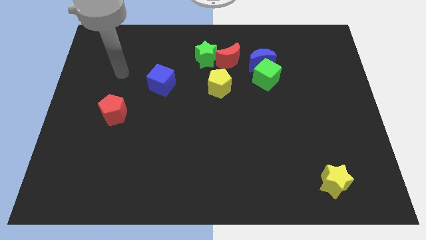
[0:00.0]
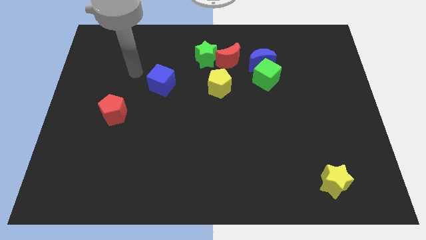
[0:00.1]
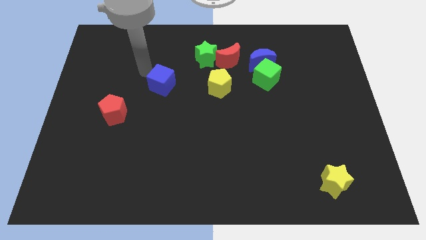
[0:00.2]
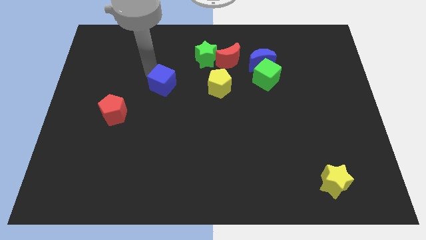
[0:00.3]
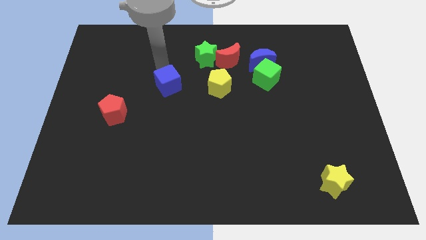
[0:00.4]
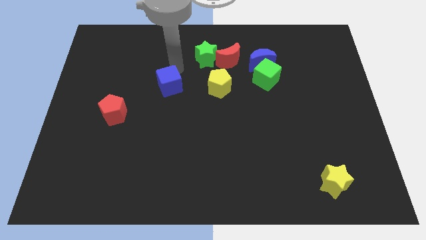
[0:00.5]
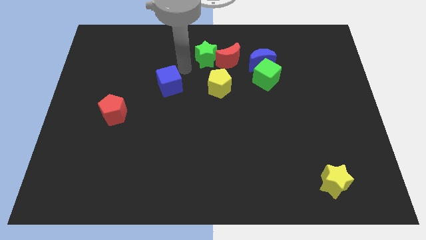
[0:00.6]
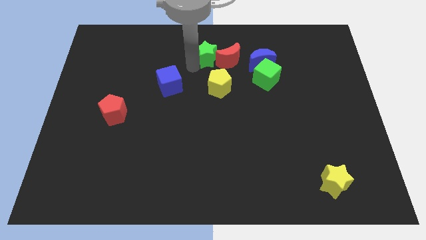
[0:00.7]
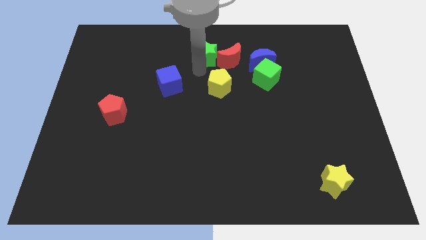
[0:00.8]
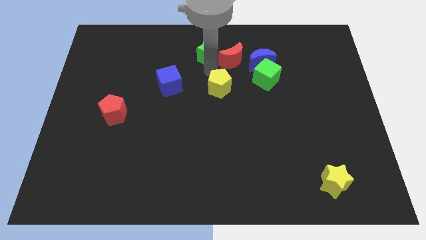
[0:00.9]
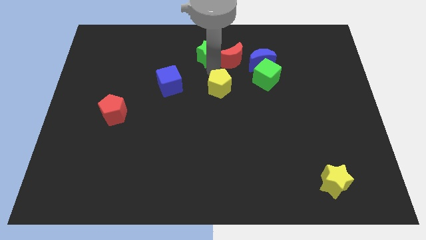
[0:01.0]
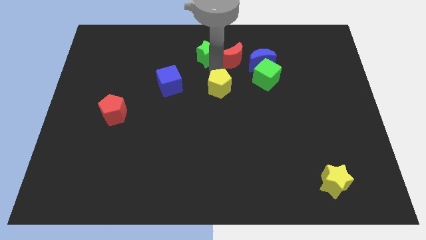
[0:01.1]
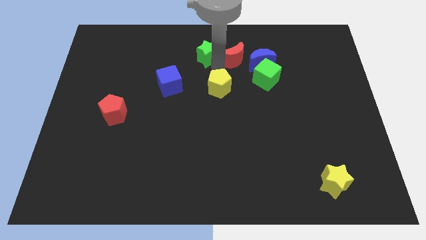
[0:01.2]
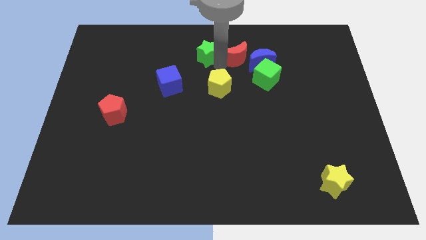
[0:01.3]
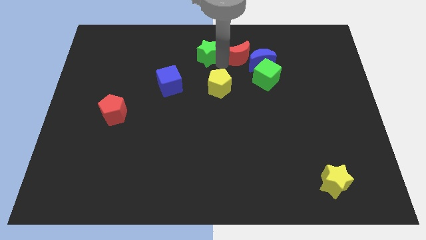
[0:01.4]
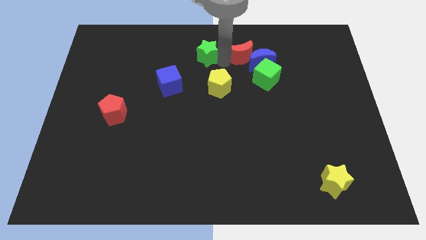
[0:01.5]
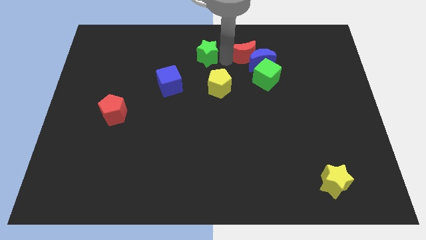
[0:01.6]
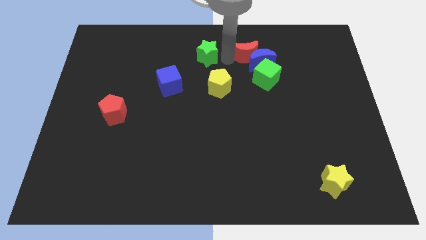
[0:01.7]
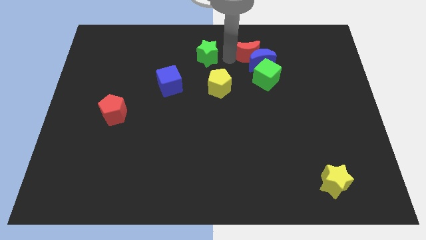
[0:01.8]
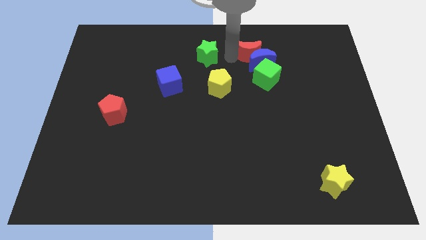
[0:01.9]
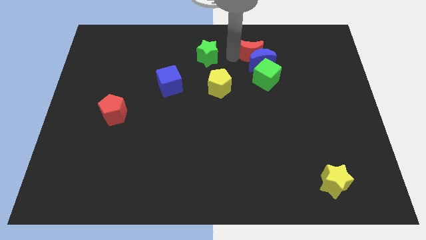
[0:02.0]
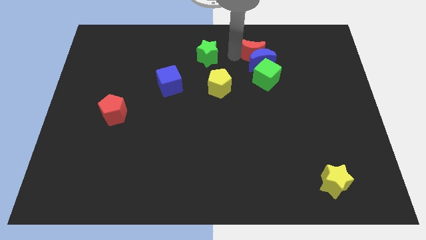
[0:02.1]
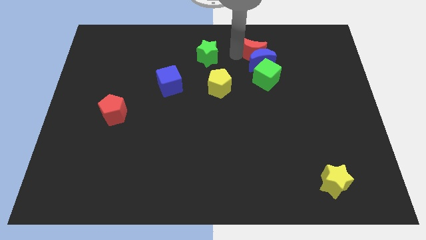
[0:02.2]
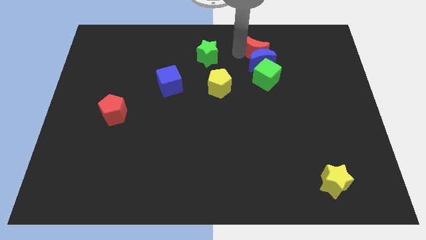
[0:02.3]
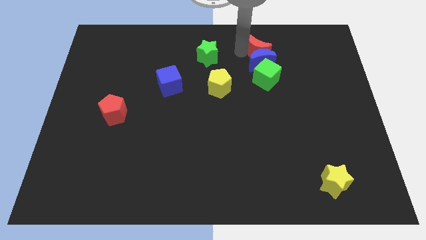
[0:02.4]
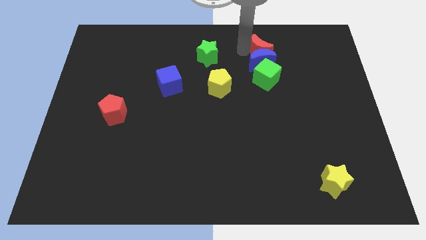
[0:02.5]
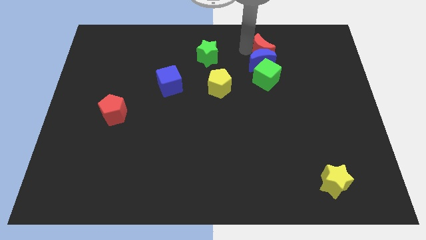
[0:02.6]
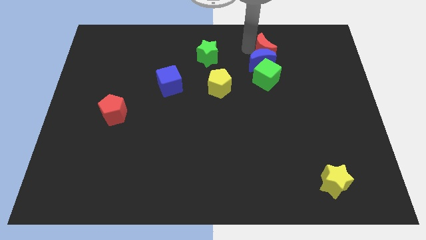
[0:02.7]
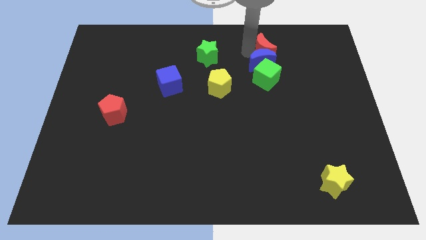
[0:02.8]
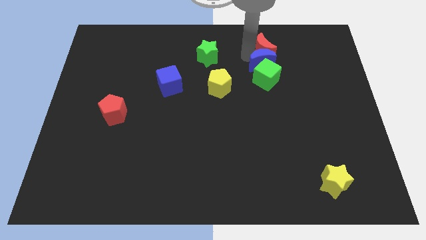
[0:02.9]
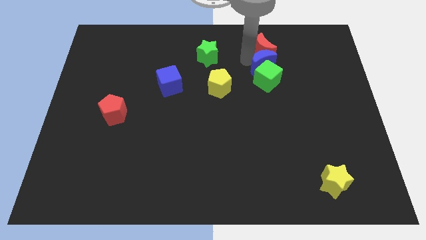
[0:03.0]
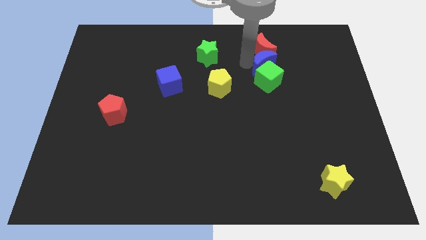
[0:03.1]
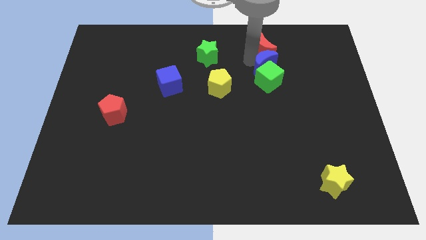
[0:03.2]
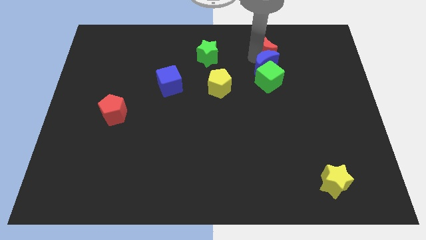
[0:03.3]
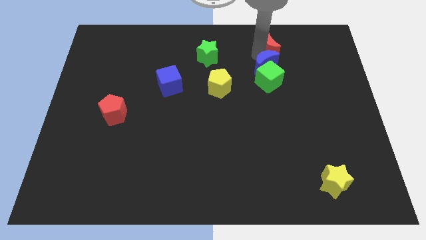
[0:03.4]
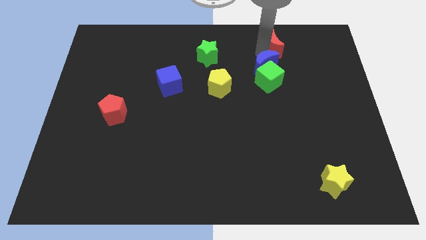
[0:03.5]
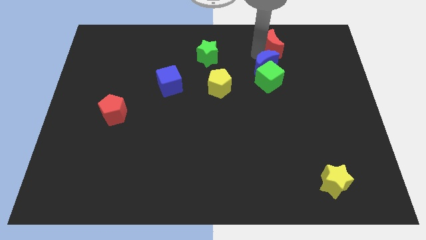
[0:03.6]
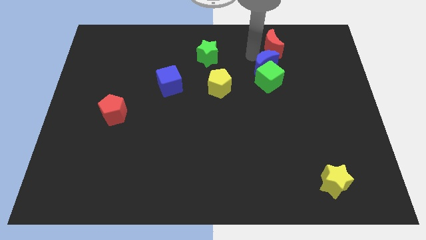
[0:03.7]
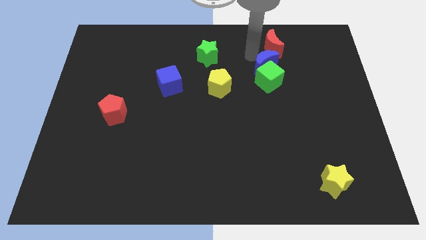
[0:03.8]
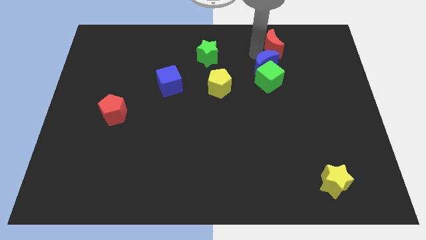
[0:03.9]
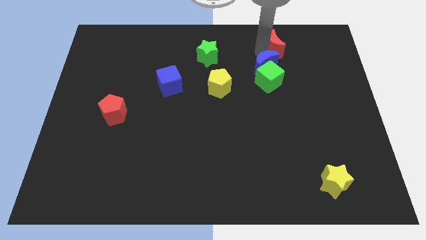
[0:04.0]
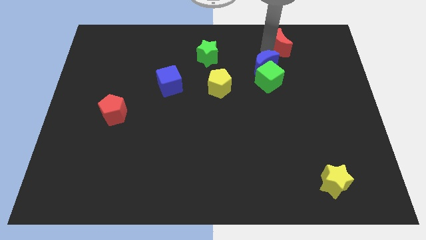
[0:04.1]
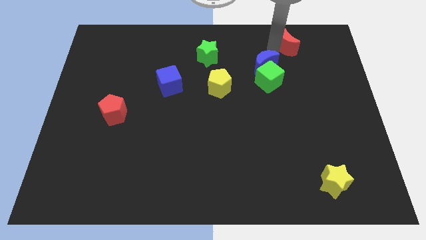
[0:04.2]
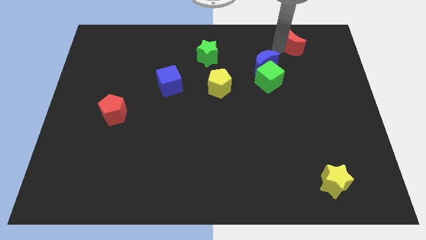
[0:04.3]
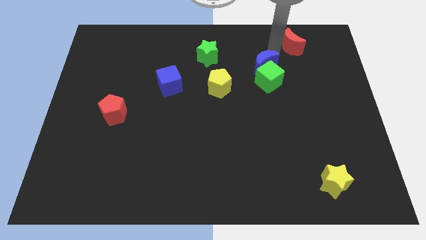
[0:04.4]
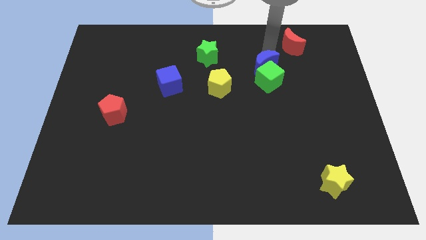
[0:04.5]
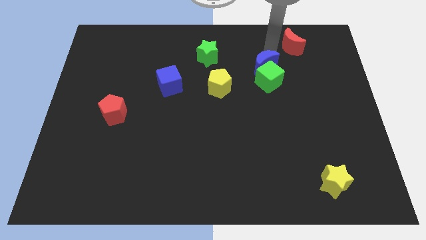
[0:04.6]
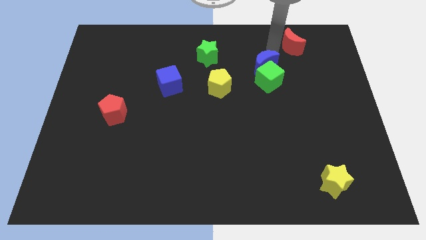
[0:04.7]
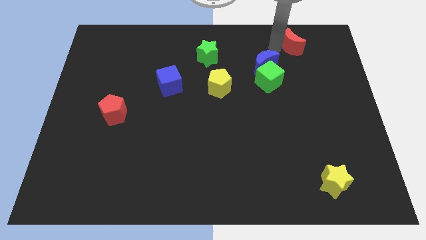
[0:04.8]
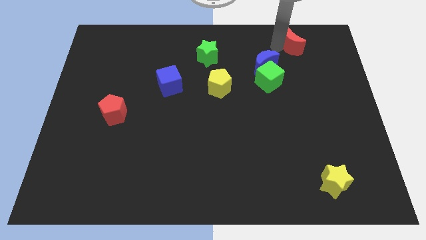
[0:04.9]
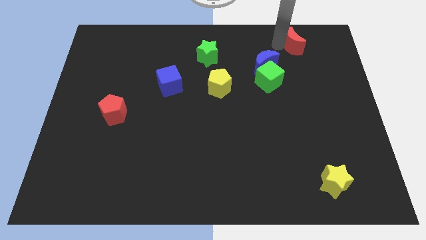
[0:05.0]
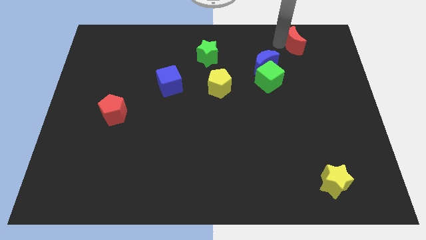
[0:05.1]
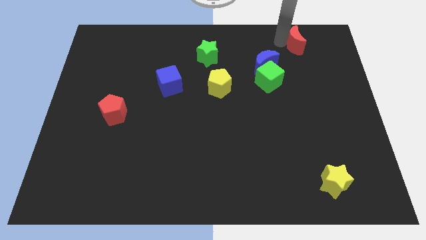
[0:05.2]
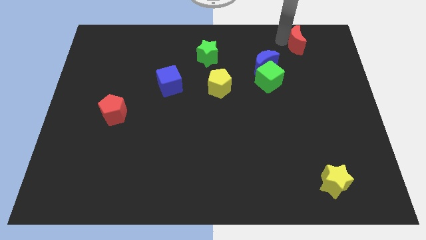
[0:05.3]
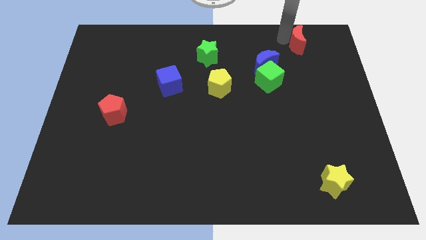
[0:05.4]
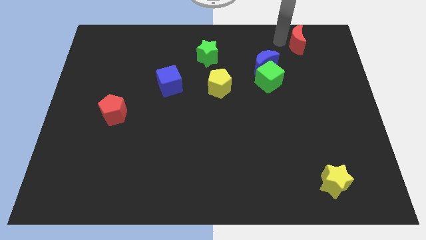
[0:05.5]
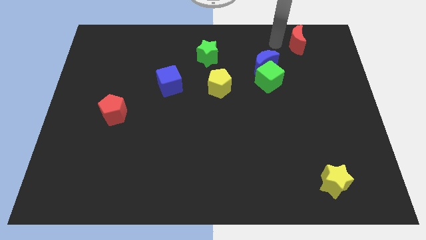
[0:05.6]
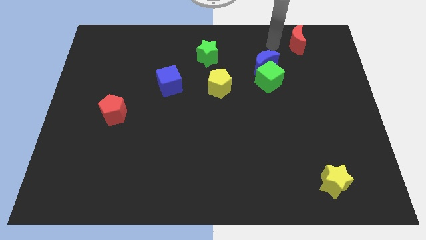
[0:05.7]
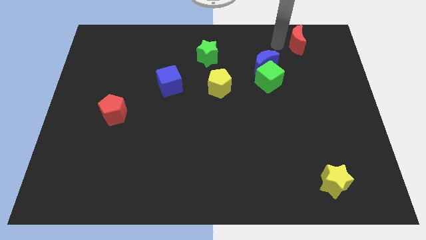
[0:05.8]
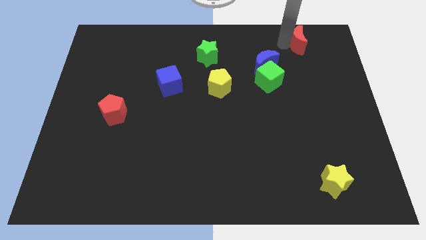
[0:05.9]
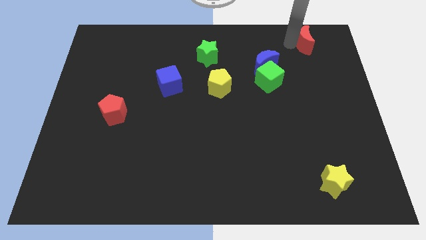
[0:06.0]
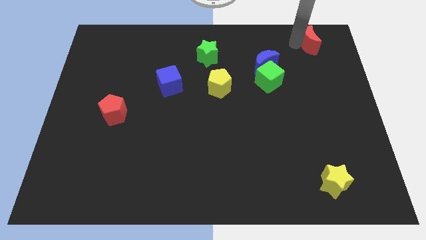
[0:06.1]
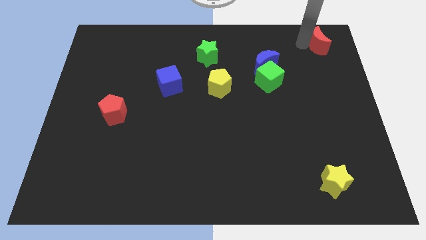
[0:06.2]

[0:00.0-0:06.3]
move the red moon to the top right of the board
